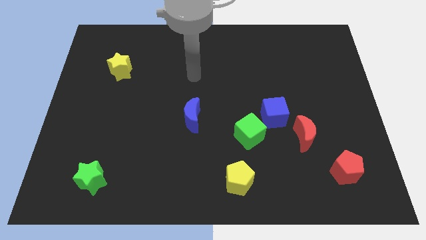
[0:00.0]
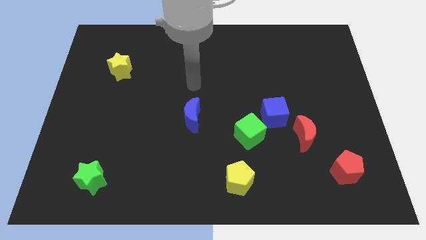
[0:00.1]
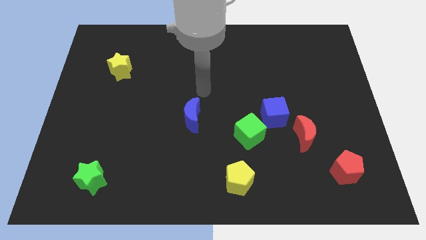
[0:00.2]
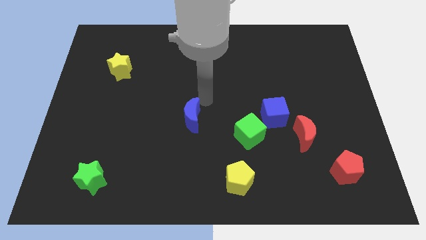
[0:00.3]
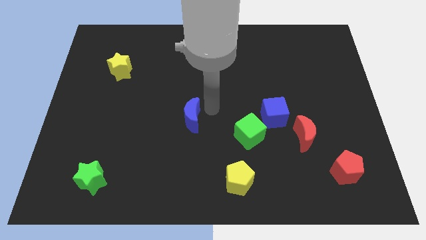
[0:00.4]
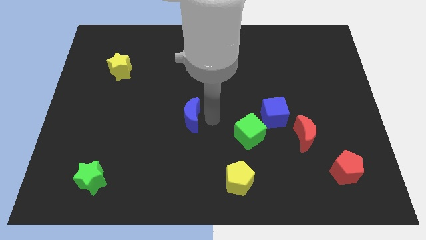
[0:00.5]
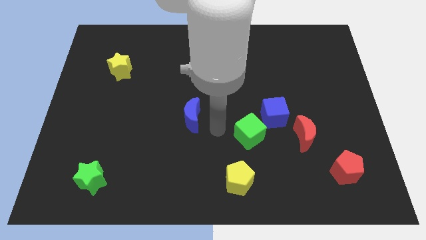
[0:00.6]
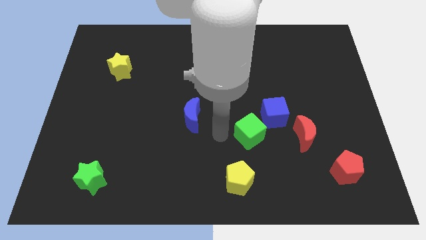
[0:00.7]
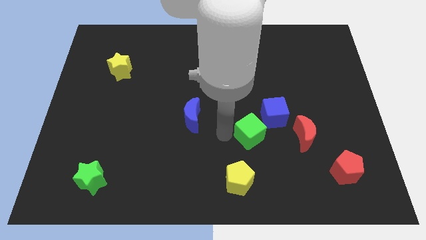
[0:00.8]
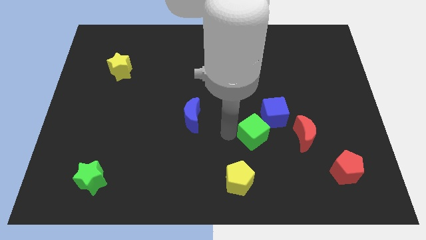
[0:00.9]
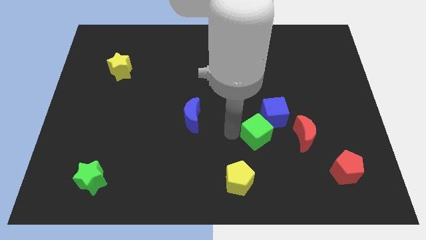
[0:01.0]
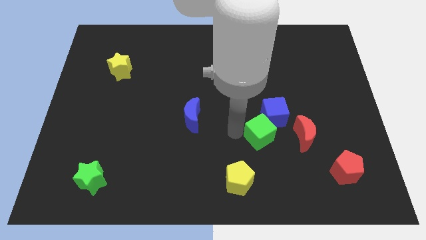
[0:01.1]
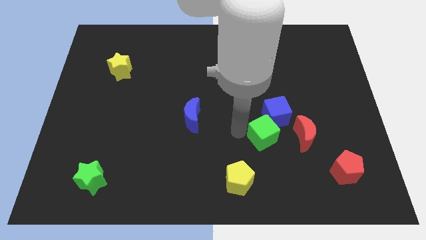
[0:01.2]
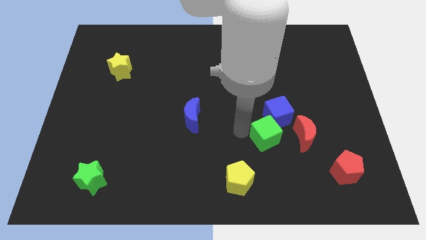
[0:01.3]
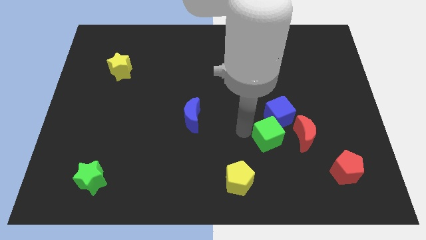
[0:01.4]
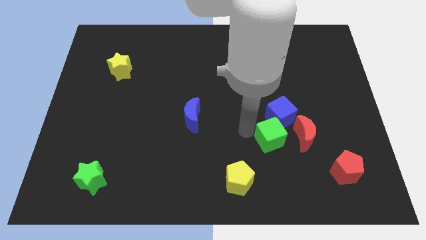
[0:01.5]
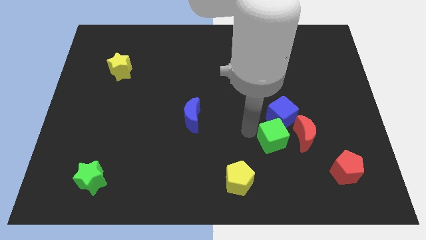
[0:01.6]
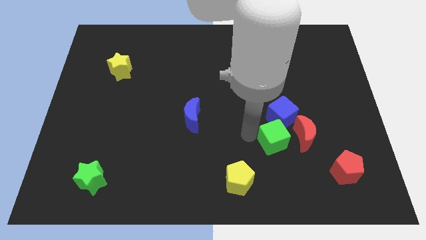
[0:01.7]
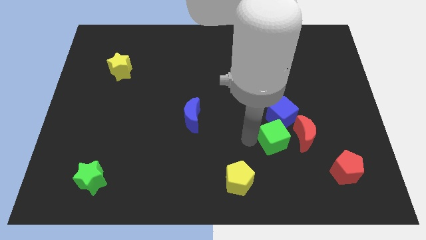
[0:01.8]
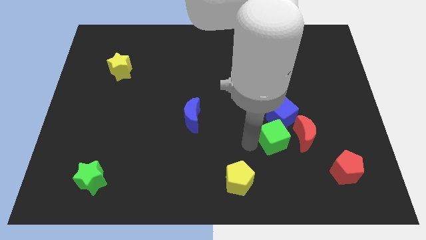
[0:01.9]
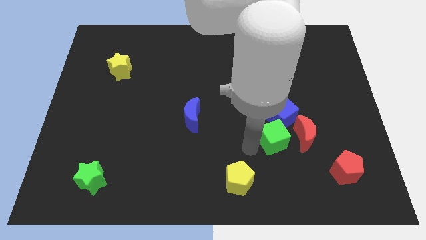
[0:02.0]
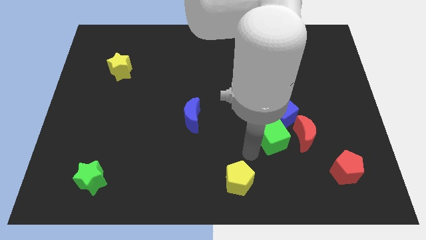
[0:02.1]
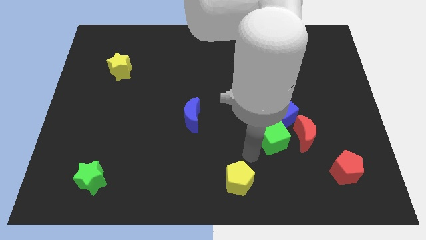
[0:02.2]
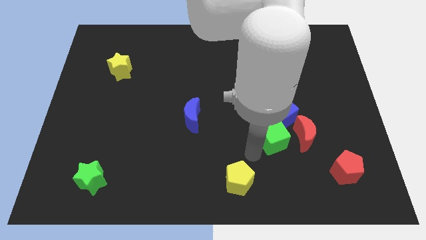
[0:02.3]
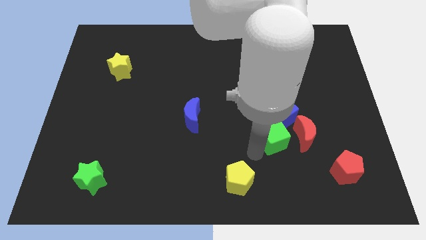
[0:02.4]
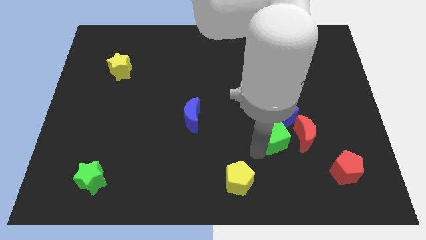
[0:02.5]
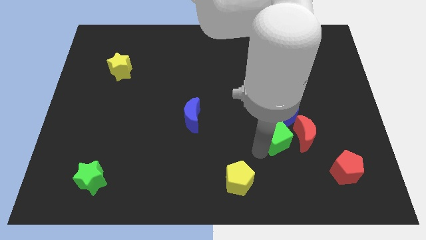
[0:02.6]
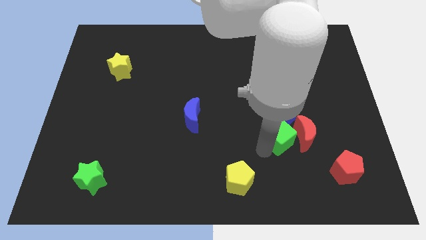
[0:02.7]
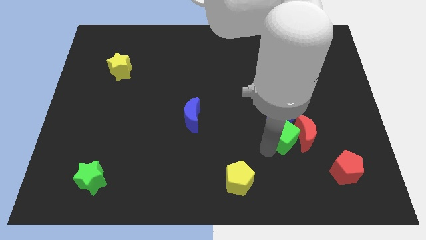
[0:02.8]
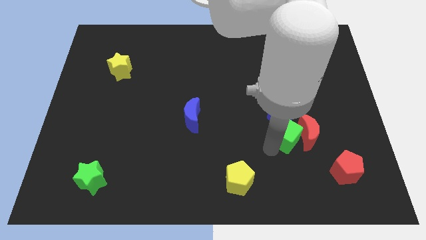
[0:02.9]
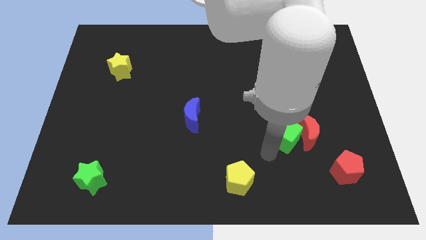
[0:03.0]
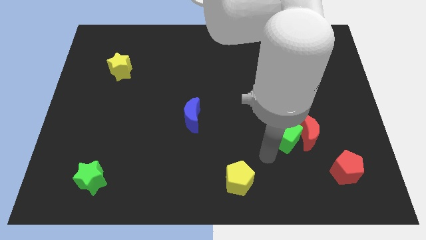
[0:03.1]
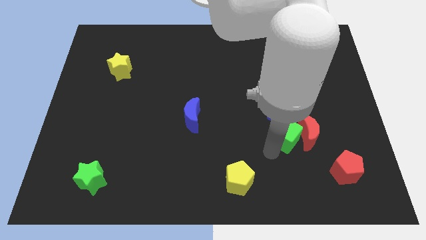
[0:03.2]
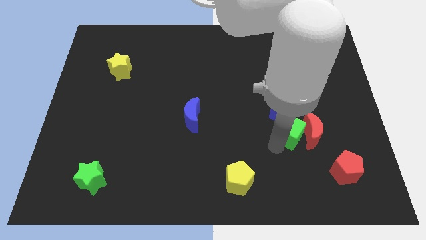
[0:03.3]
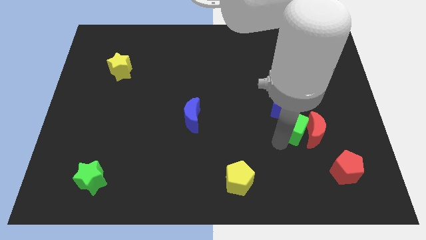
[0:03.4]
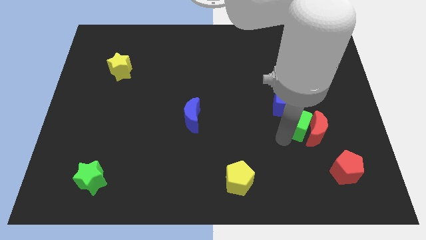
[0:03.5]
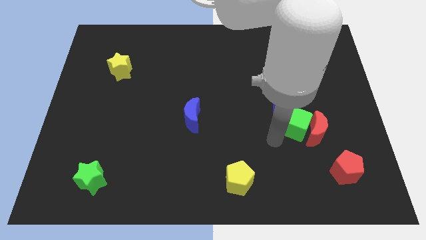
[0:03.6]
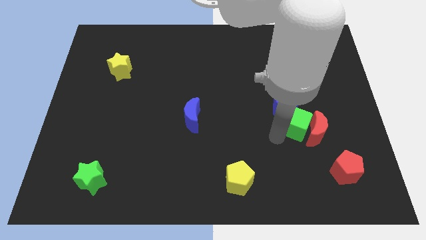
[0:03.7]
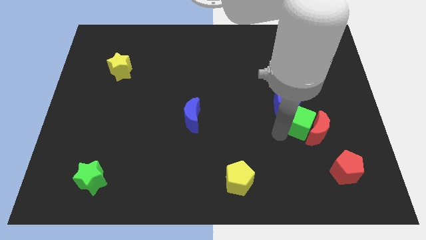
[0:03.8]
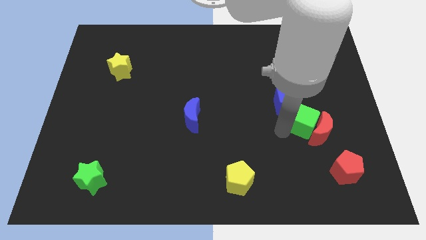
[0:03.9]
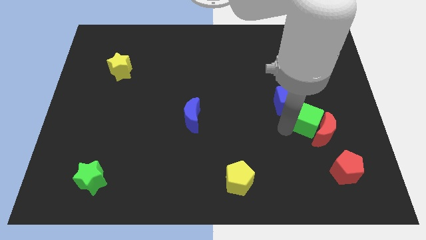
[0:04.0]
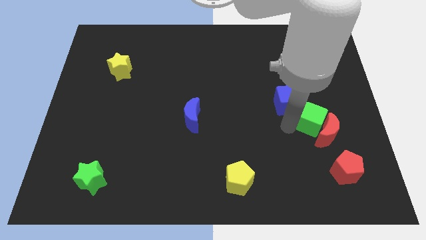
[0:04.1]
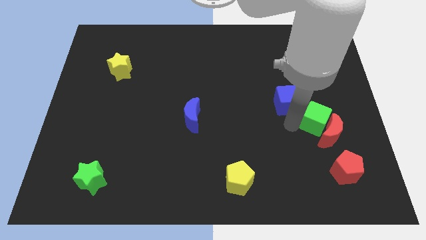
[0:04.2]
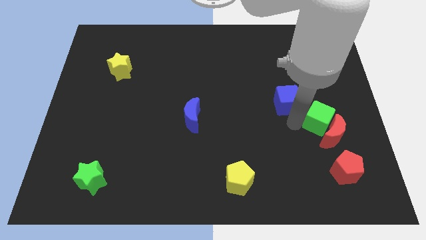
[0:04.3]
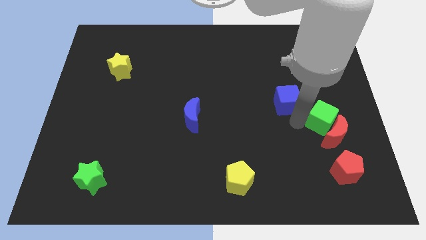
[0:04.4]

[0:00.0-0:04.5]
push the green cube right of the blue cube

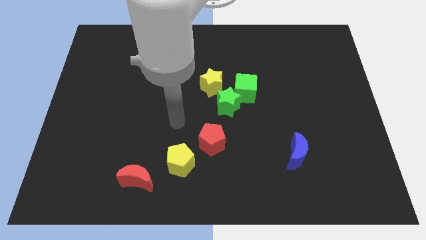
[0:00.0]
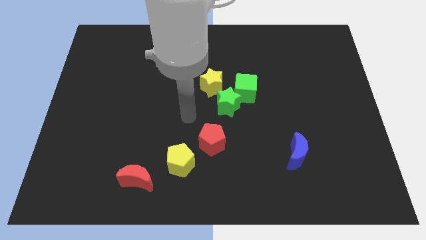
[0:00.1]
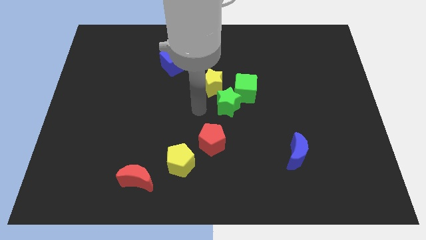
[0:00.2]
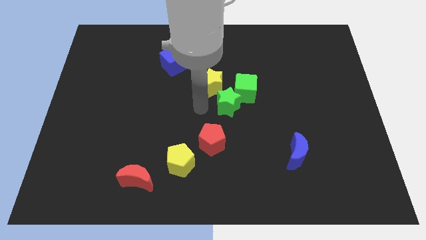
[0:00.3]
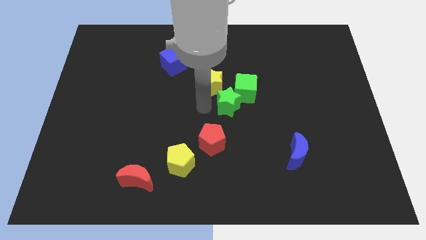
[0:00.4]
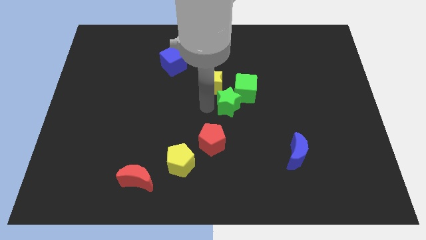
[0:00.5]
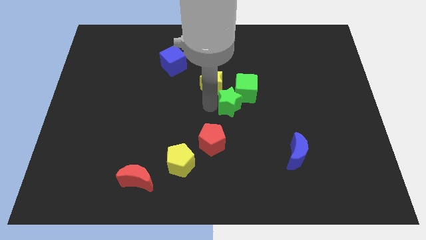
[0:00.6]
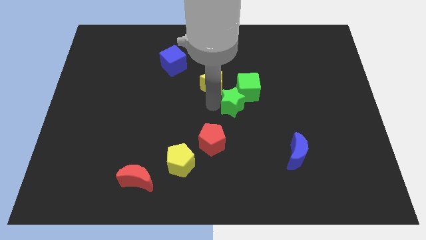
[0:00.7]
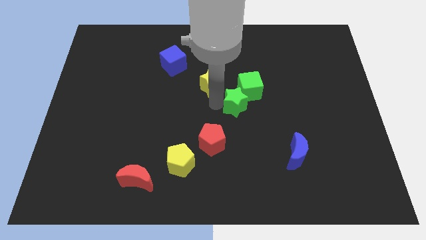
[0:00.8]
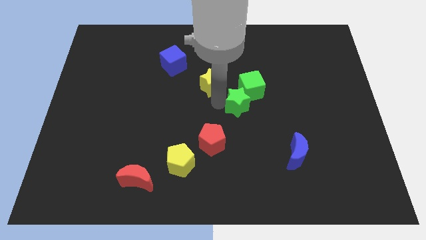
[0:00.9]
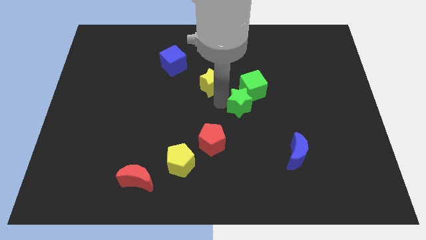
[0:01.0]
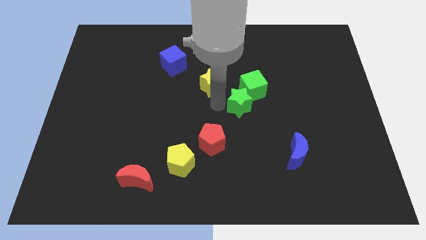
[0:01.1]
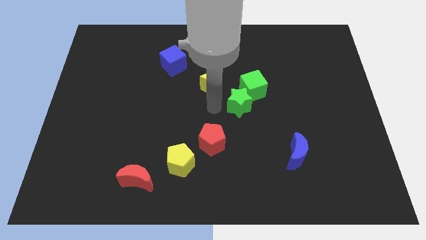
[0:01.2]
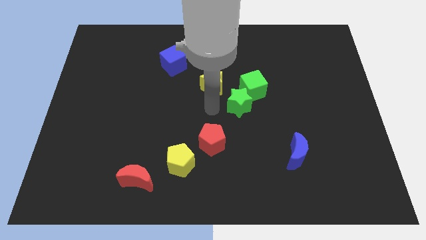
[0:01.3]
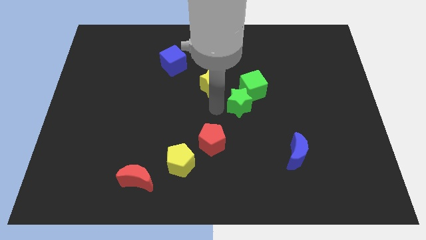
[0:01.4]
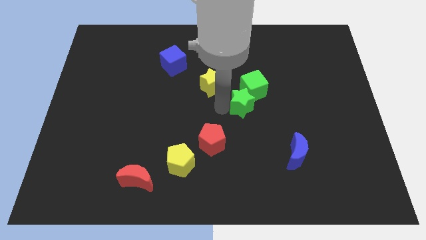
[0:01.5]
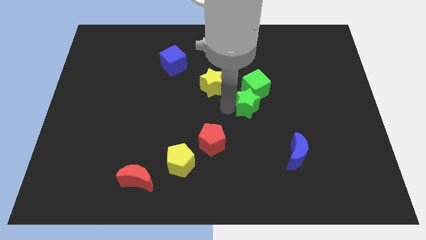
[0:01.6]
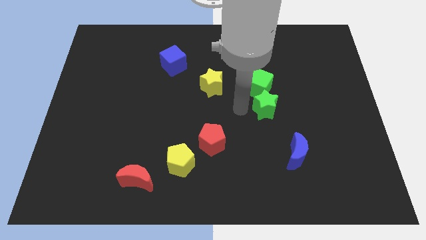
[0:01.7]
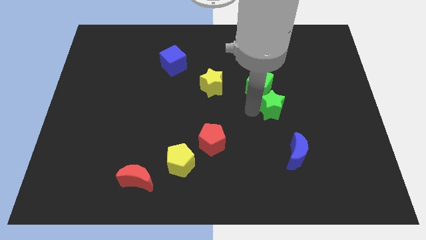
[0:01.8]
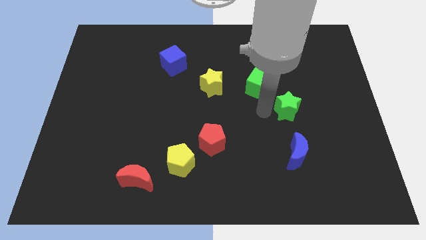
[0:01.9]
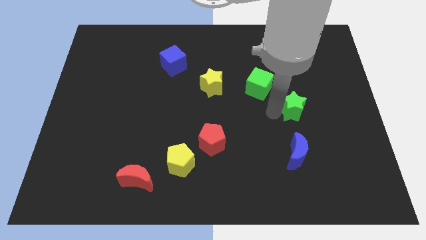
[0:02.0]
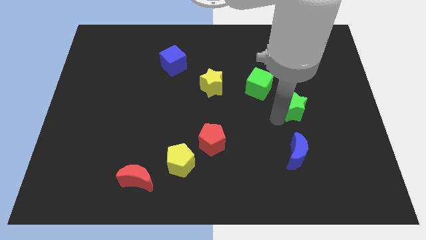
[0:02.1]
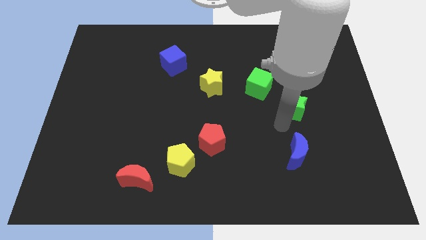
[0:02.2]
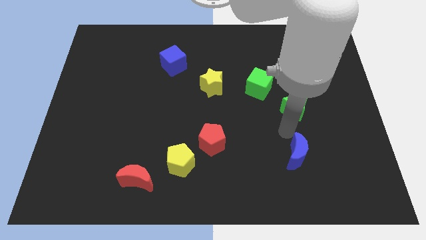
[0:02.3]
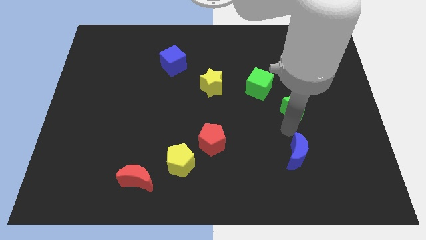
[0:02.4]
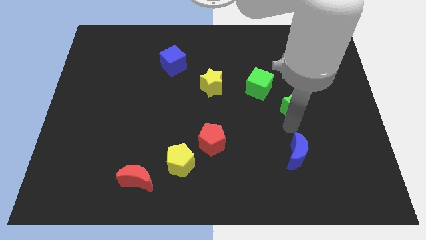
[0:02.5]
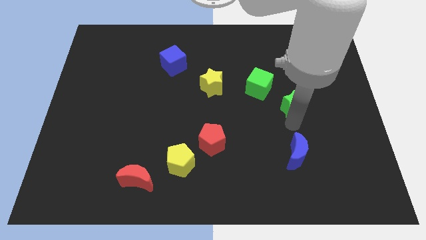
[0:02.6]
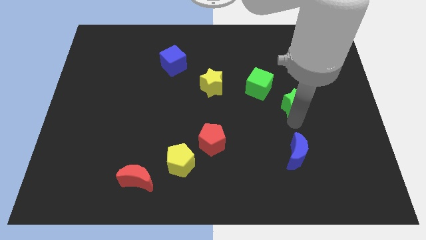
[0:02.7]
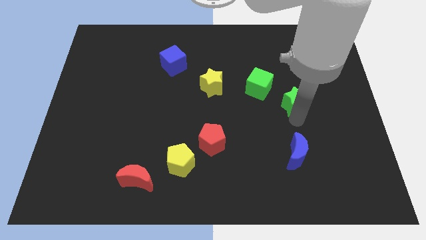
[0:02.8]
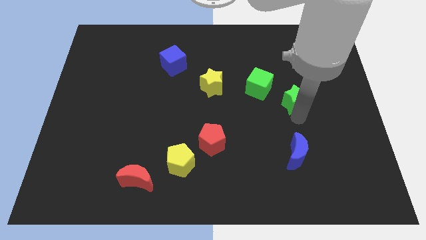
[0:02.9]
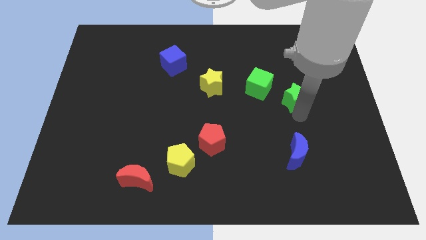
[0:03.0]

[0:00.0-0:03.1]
push the green star to the right of the green cube

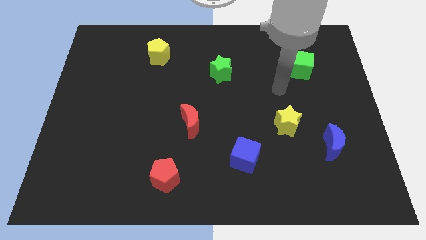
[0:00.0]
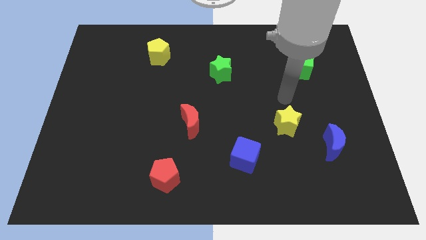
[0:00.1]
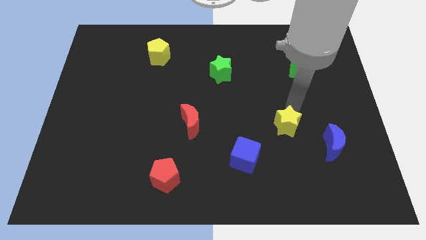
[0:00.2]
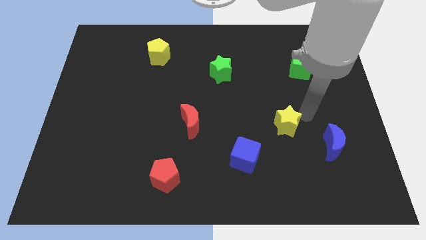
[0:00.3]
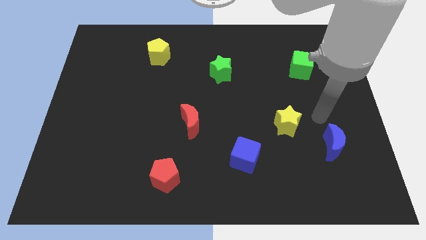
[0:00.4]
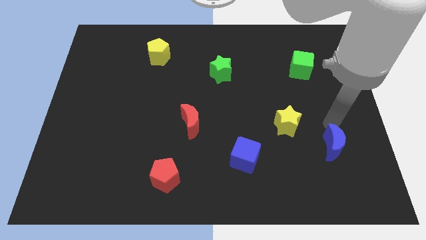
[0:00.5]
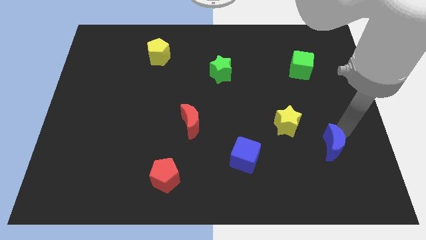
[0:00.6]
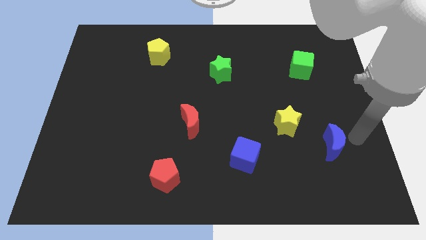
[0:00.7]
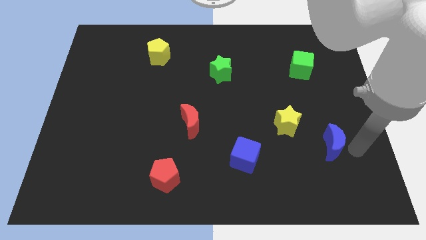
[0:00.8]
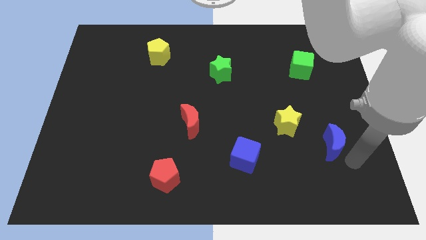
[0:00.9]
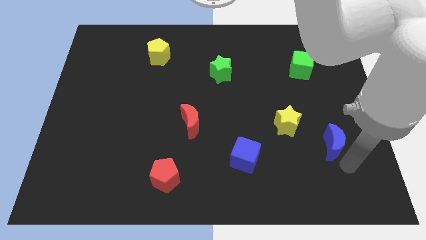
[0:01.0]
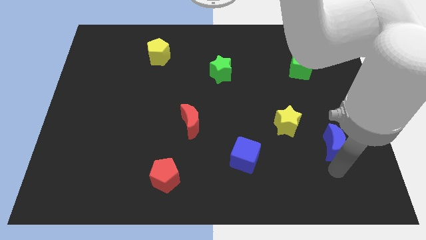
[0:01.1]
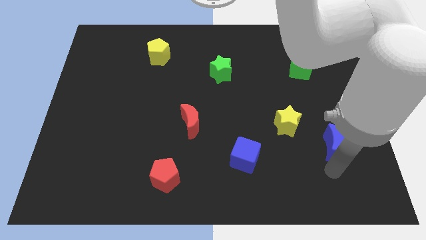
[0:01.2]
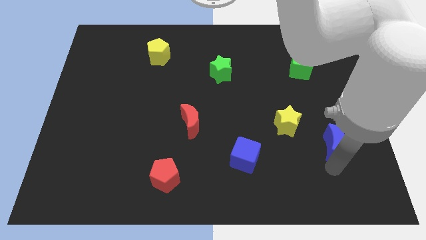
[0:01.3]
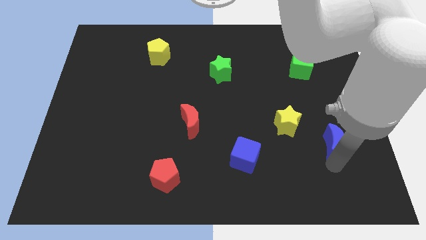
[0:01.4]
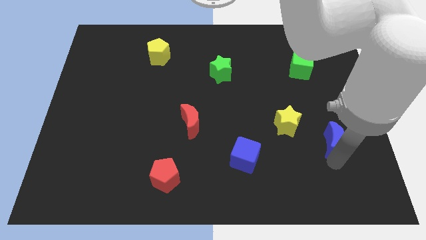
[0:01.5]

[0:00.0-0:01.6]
slide the blue moon to the right side of the yellow star
